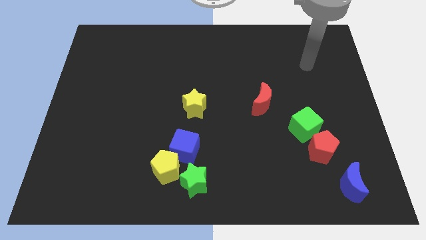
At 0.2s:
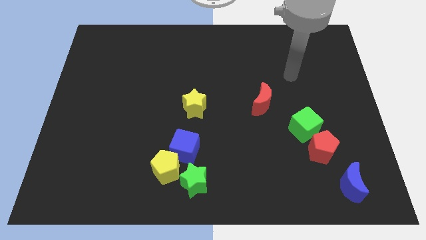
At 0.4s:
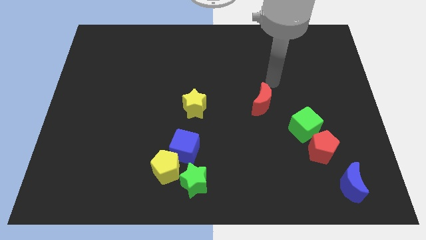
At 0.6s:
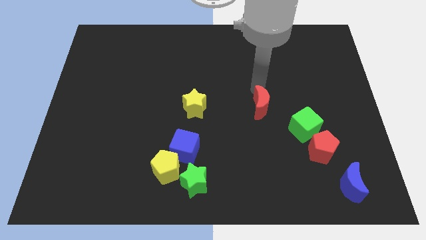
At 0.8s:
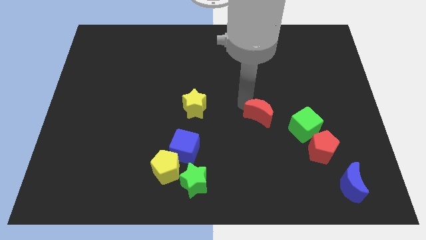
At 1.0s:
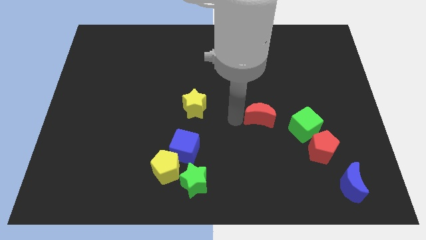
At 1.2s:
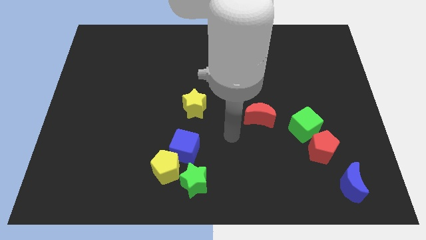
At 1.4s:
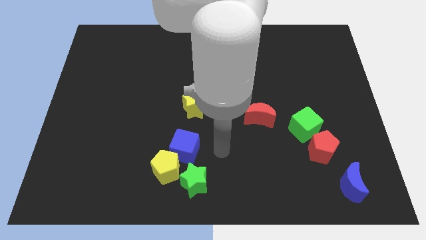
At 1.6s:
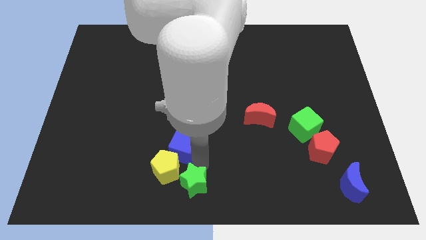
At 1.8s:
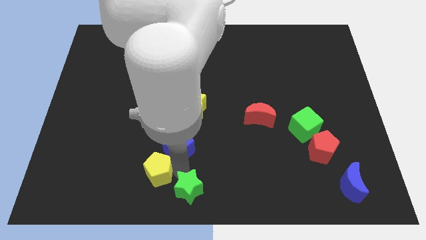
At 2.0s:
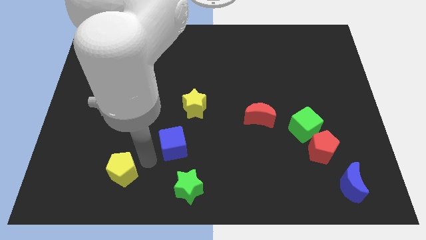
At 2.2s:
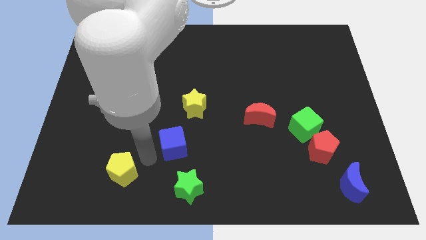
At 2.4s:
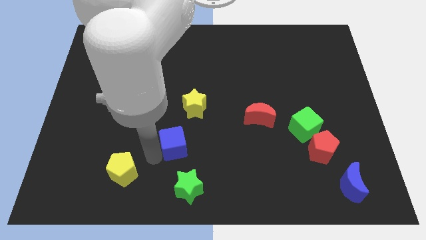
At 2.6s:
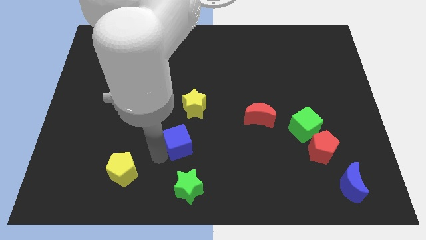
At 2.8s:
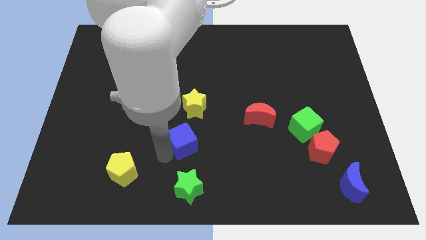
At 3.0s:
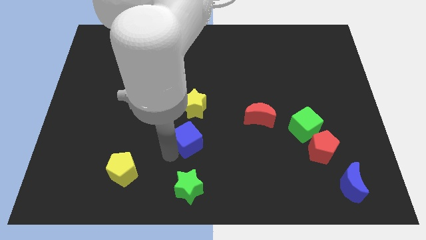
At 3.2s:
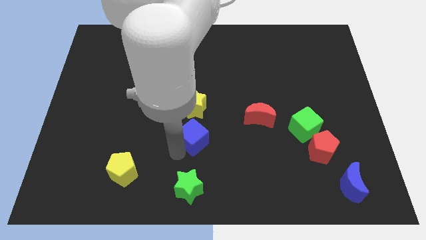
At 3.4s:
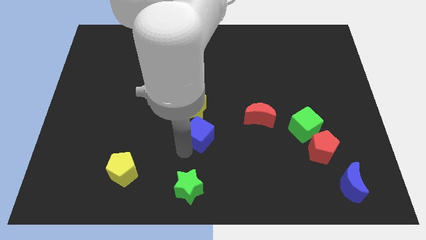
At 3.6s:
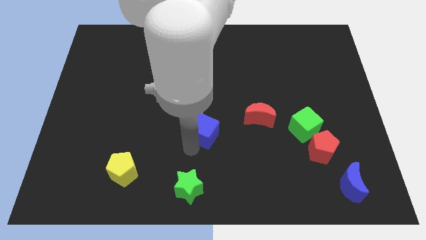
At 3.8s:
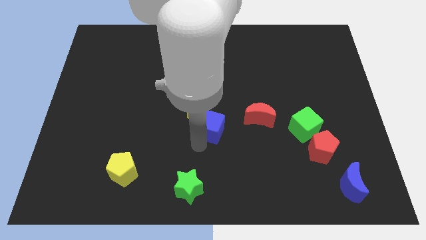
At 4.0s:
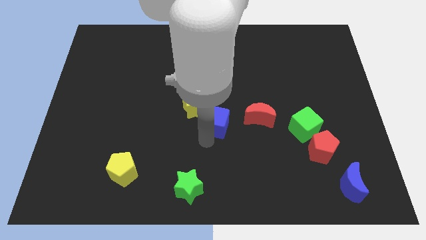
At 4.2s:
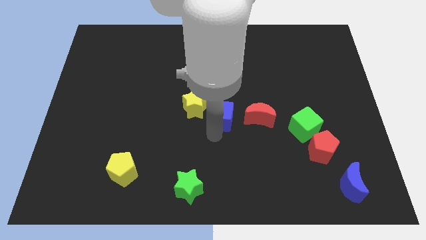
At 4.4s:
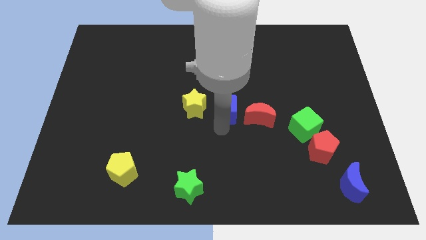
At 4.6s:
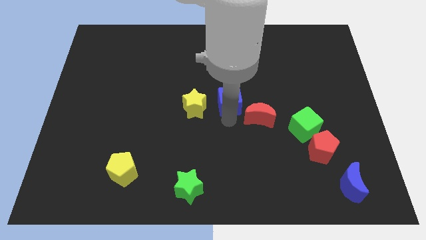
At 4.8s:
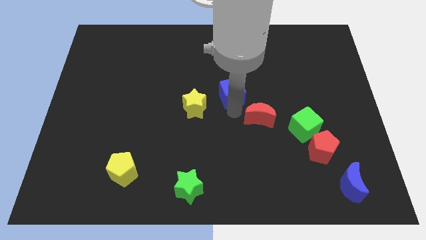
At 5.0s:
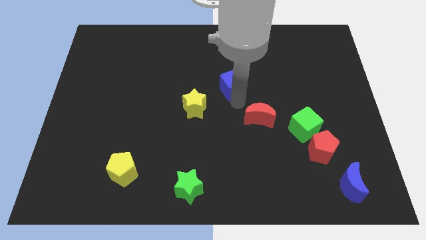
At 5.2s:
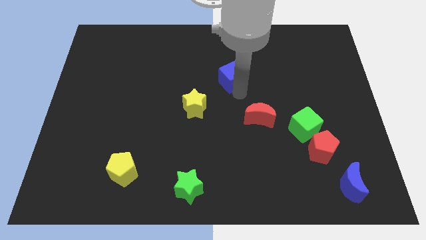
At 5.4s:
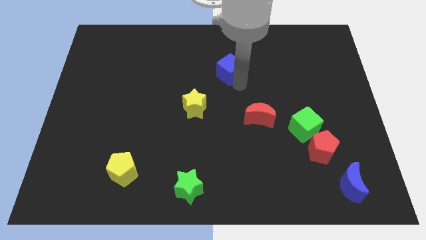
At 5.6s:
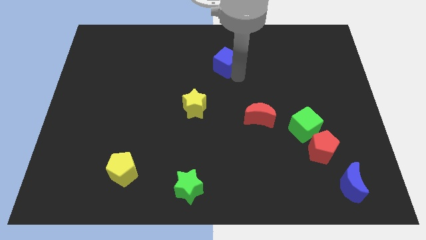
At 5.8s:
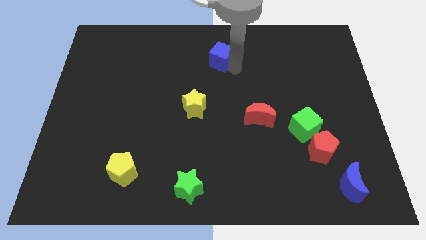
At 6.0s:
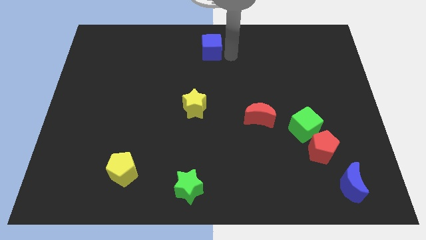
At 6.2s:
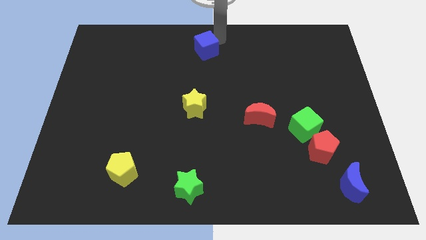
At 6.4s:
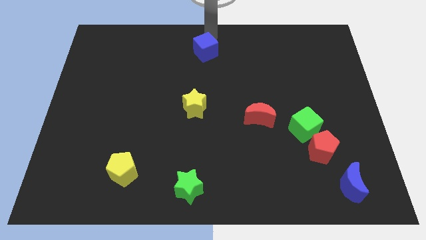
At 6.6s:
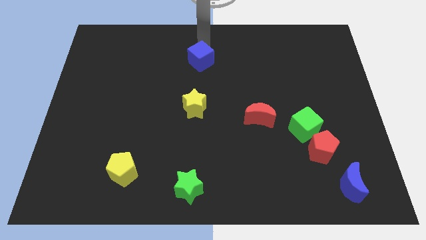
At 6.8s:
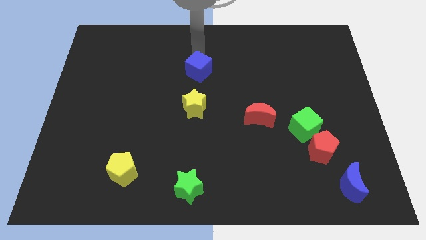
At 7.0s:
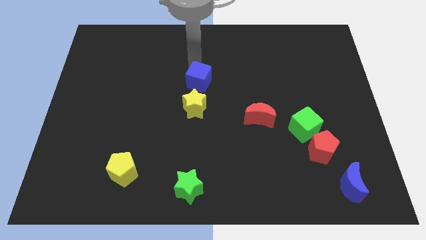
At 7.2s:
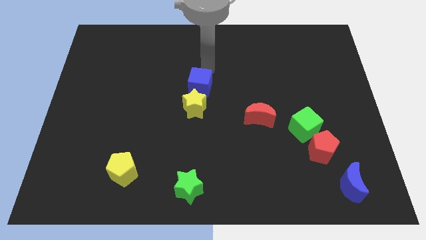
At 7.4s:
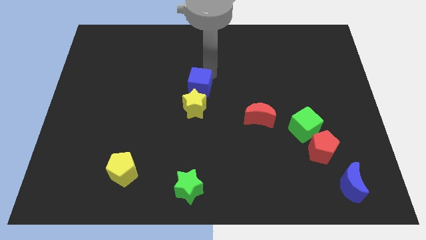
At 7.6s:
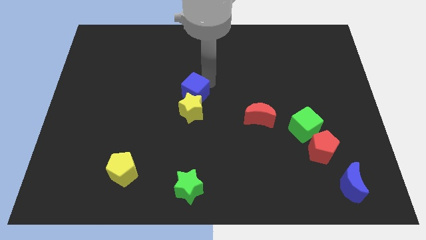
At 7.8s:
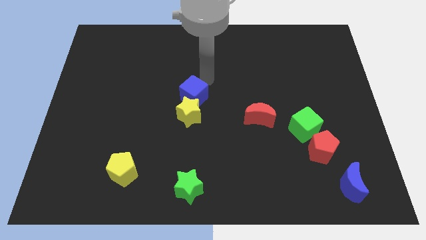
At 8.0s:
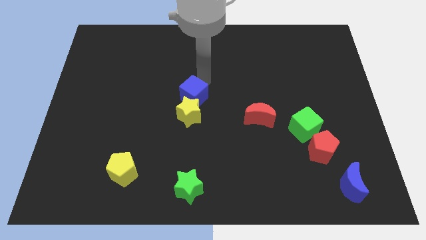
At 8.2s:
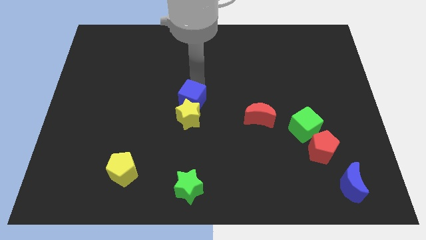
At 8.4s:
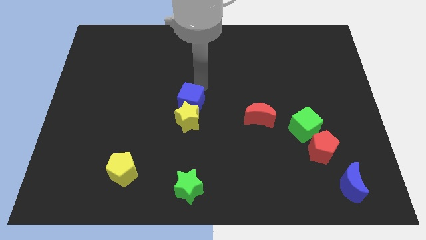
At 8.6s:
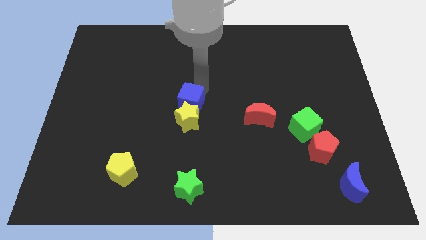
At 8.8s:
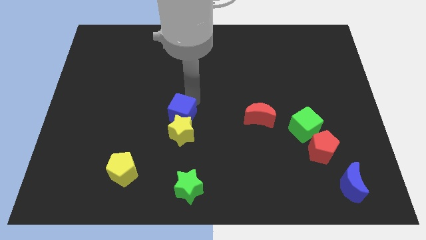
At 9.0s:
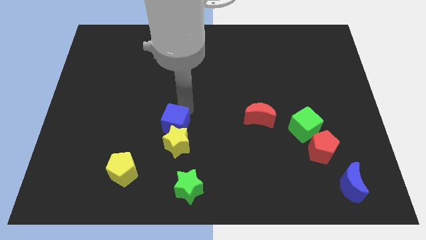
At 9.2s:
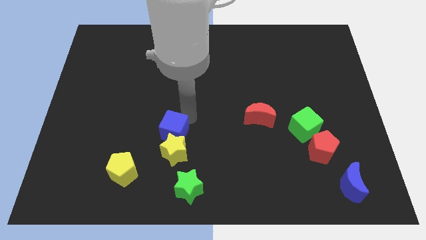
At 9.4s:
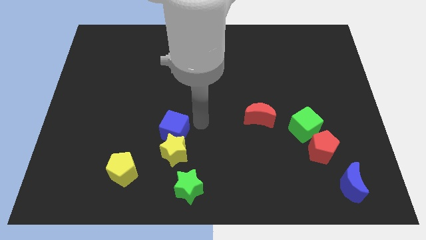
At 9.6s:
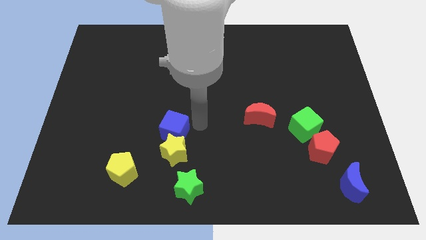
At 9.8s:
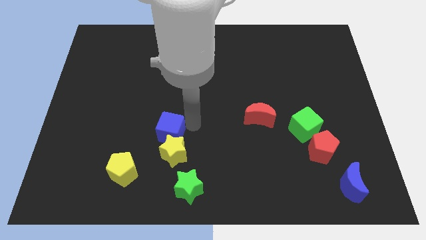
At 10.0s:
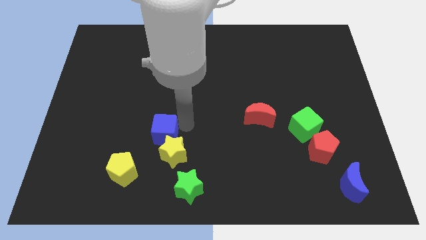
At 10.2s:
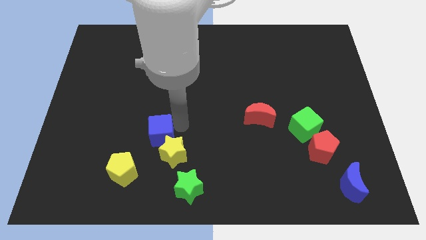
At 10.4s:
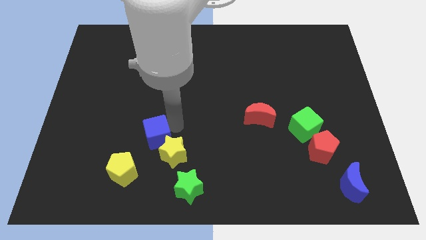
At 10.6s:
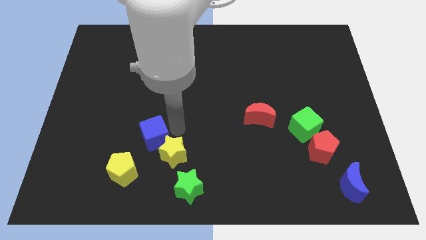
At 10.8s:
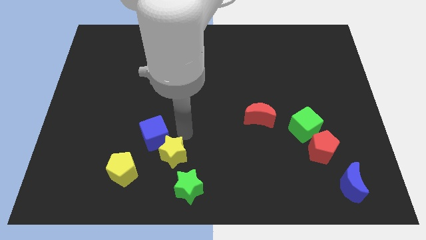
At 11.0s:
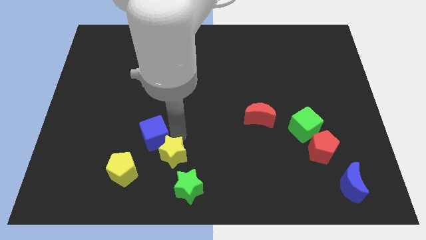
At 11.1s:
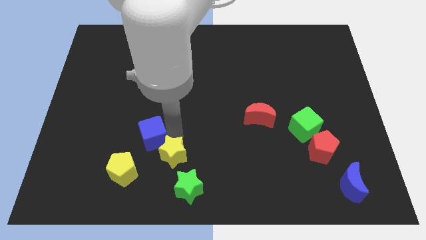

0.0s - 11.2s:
push the blue cube a little bit left

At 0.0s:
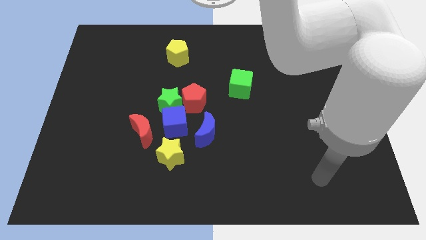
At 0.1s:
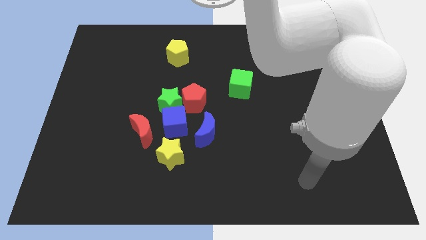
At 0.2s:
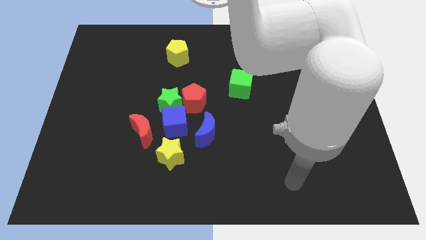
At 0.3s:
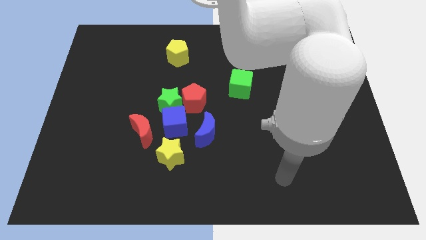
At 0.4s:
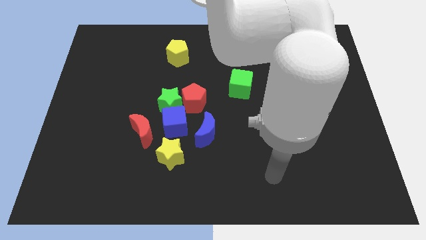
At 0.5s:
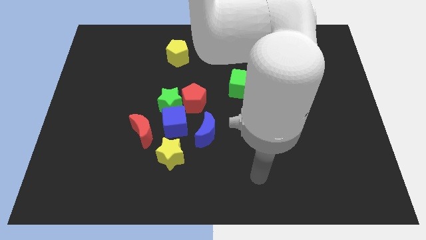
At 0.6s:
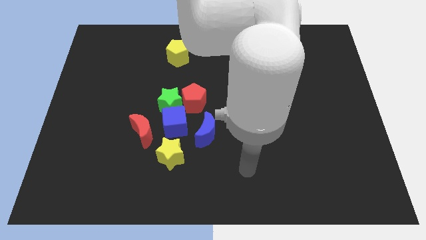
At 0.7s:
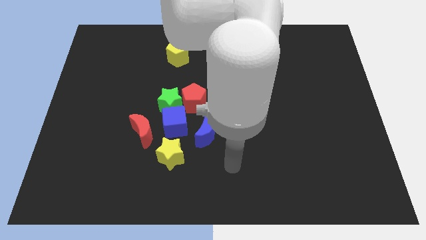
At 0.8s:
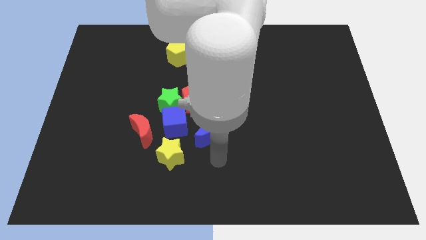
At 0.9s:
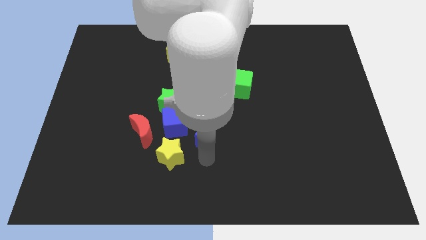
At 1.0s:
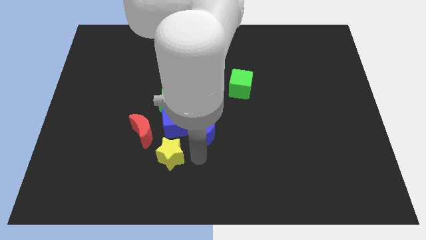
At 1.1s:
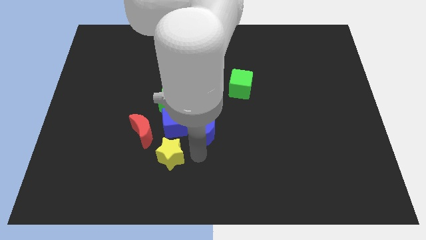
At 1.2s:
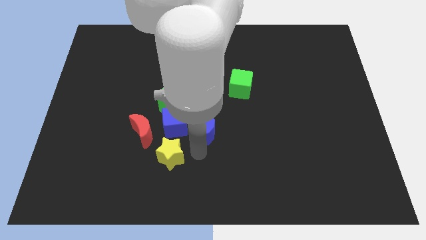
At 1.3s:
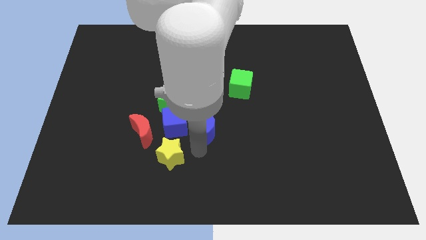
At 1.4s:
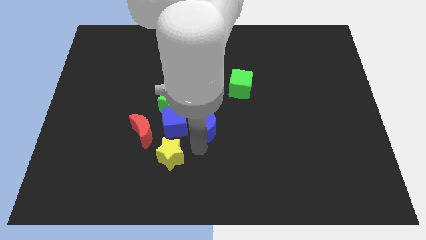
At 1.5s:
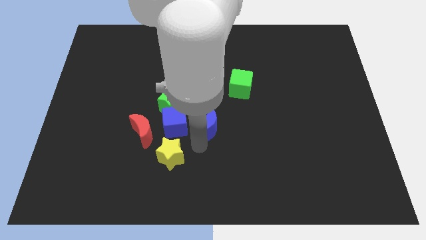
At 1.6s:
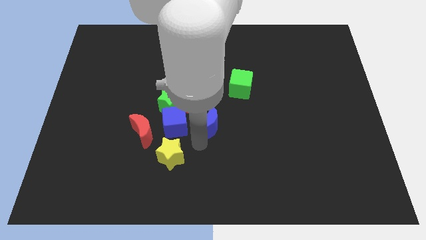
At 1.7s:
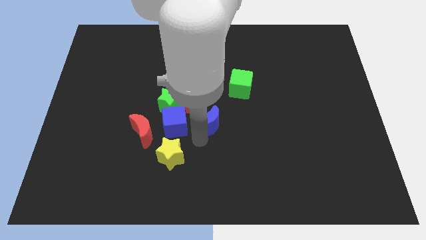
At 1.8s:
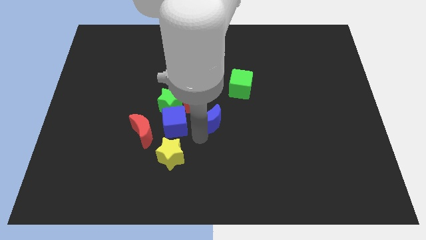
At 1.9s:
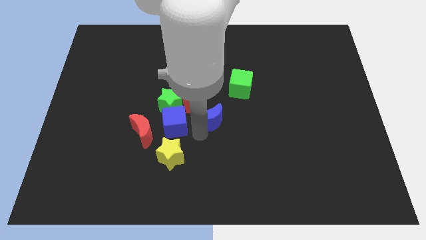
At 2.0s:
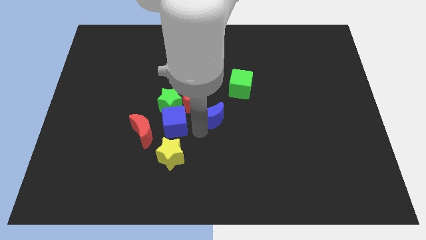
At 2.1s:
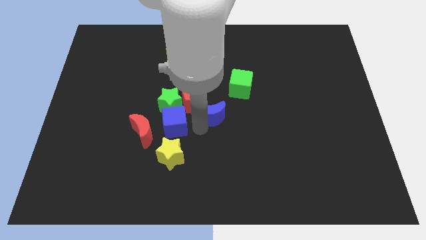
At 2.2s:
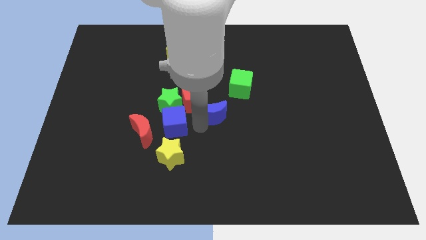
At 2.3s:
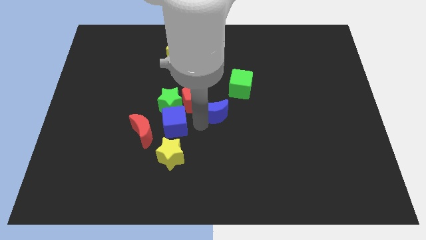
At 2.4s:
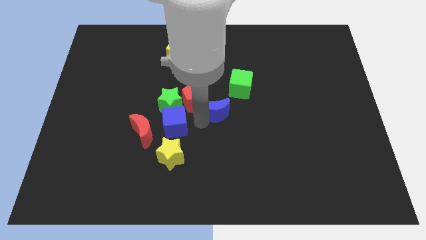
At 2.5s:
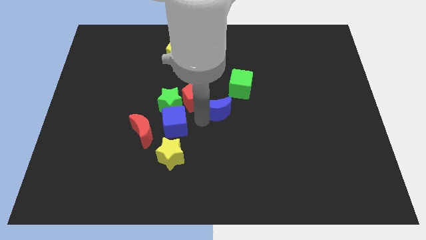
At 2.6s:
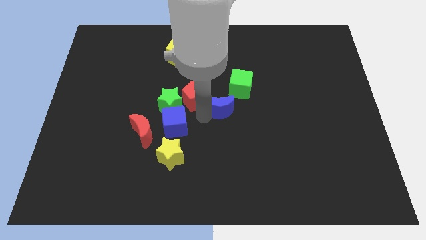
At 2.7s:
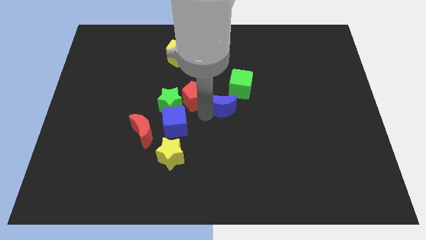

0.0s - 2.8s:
slightly slide the blue moon upwards
